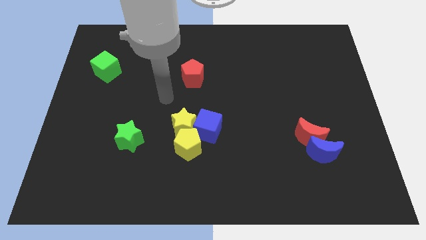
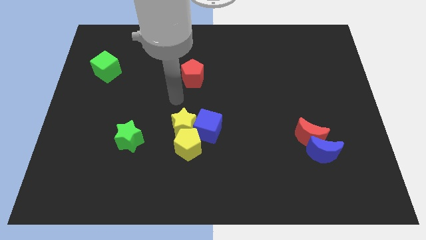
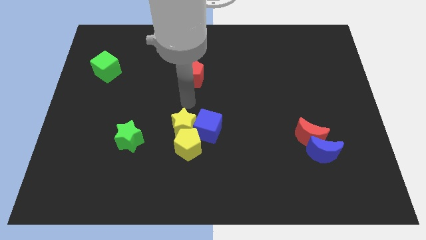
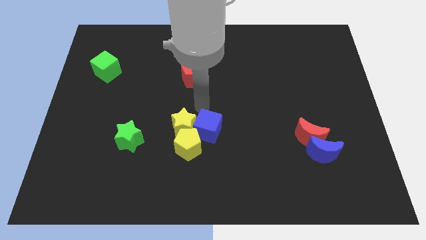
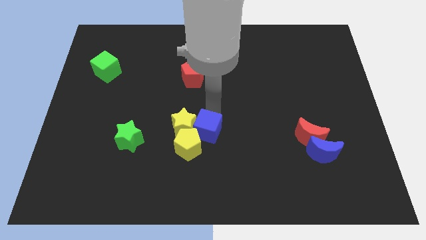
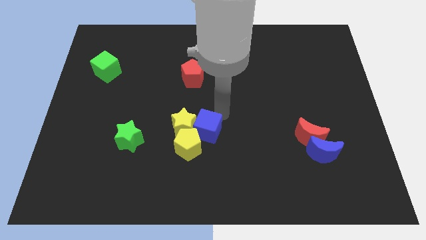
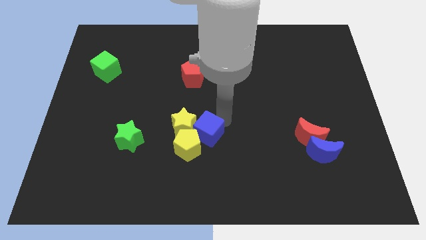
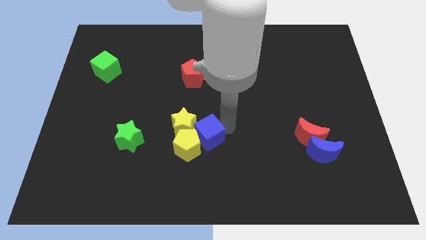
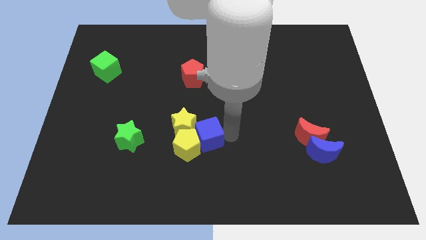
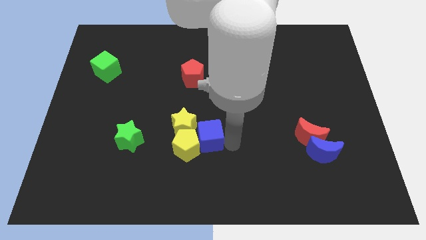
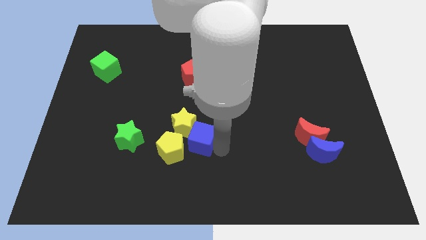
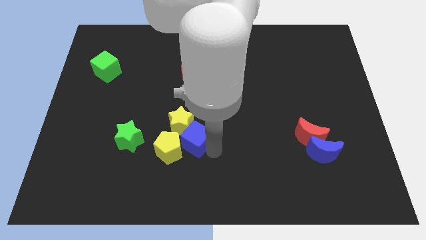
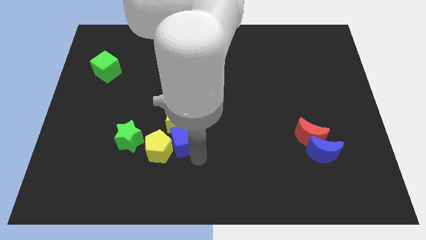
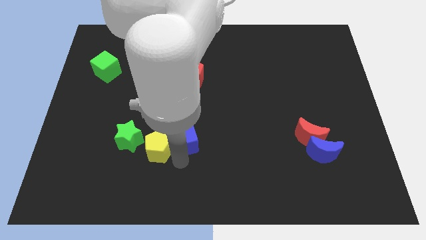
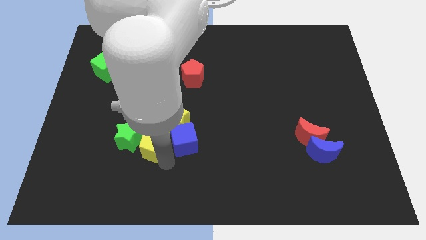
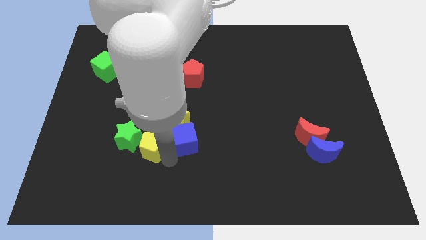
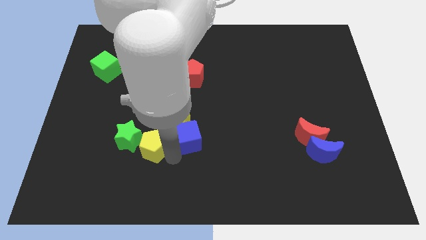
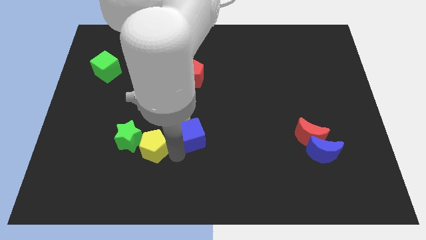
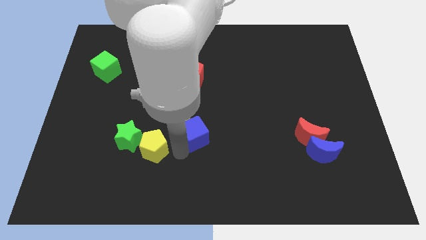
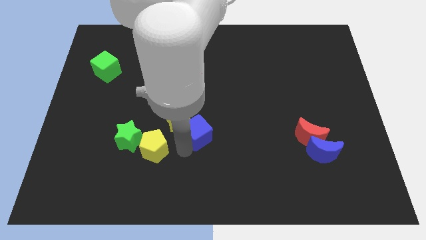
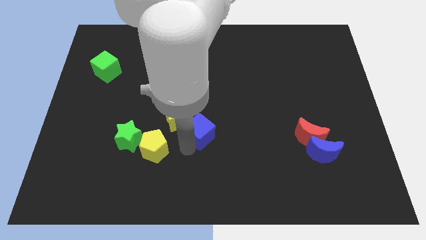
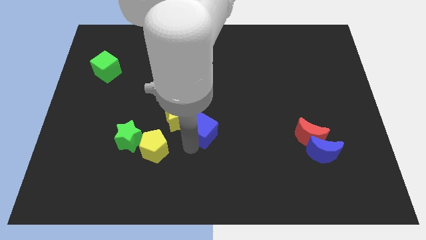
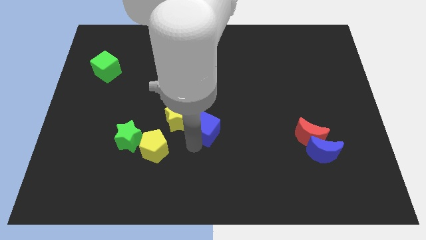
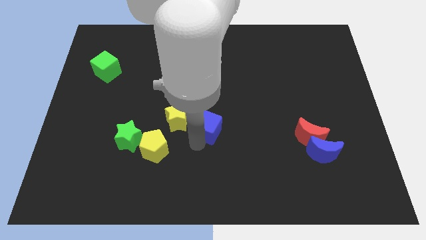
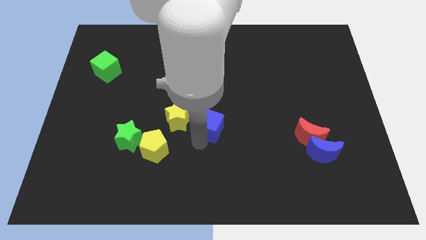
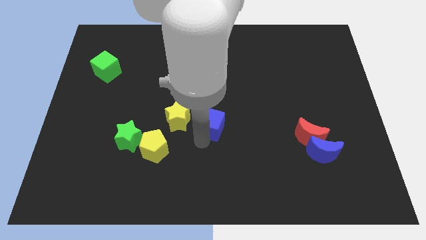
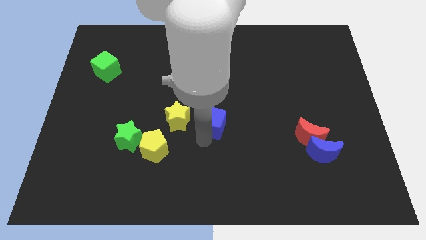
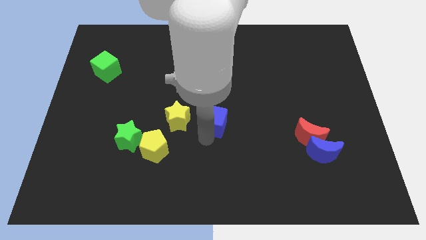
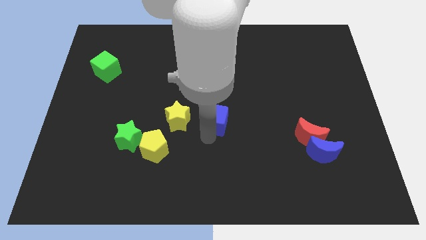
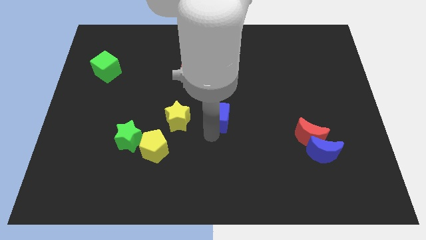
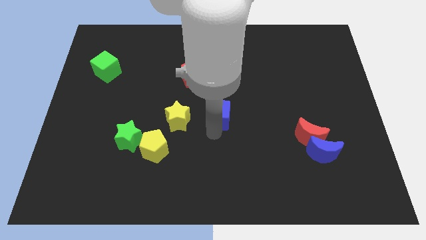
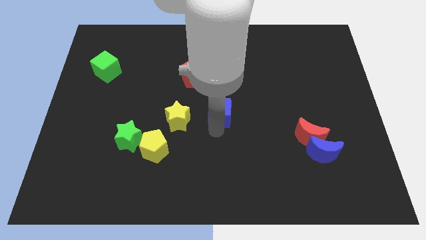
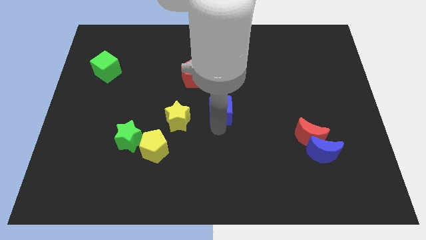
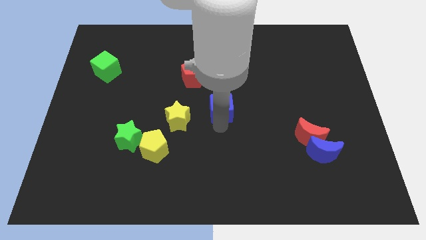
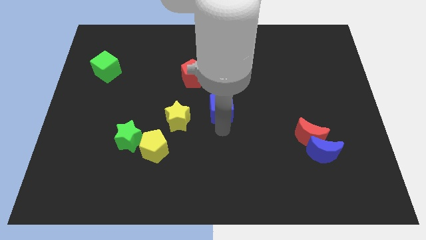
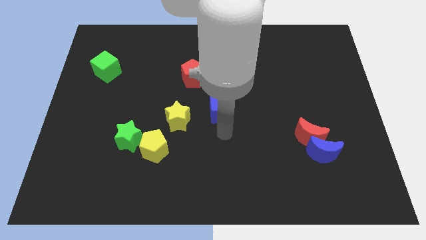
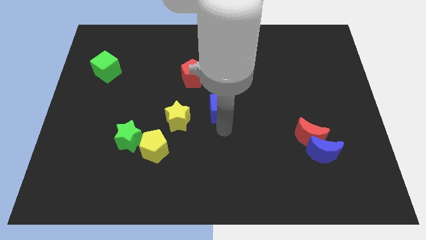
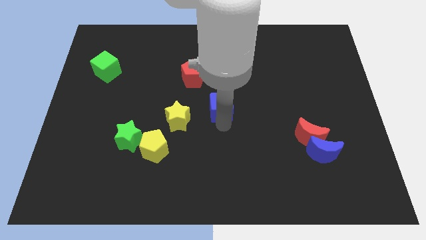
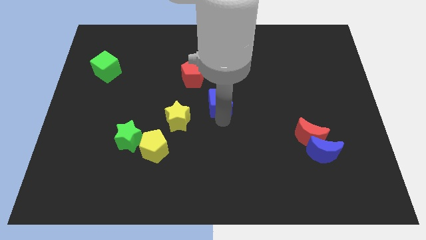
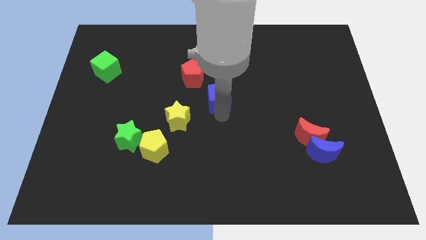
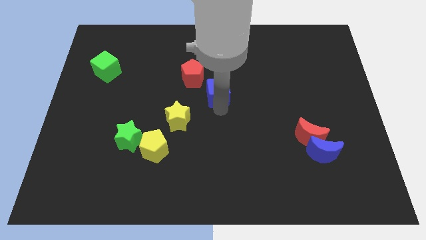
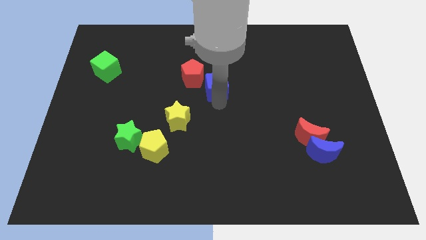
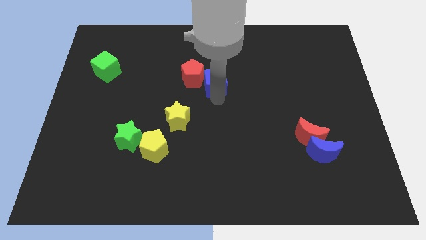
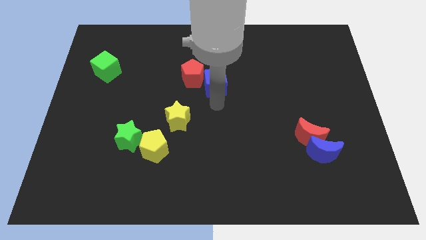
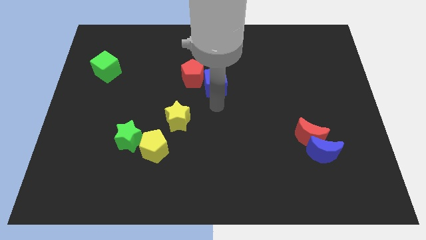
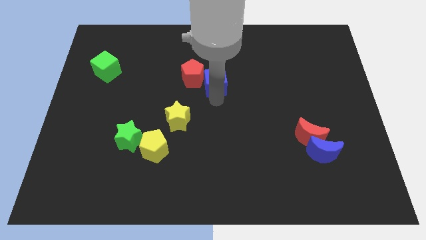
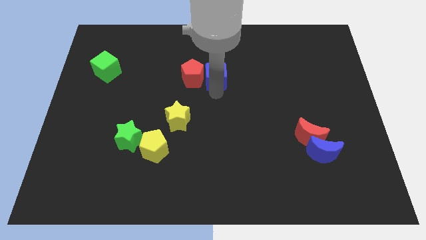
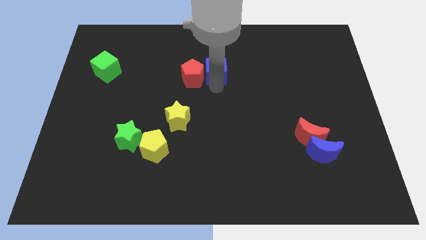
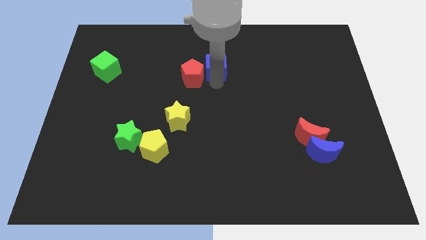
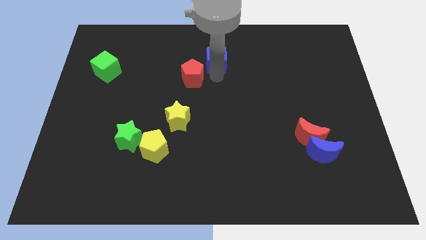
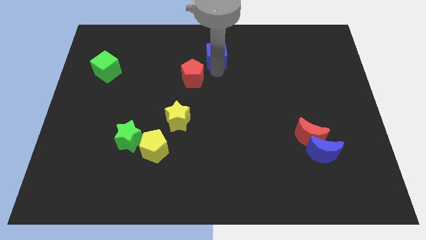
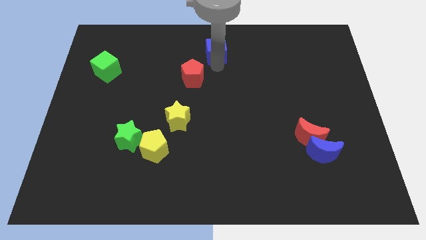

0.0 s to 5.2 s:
slide the blue cube to the towards your base
